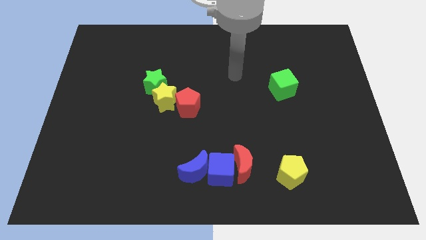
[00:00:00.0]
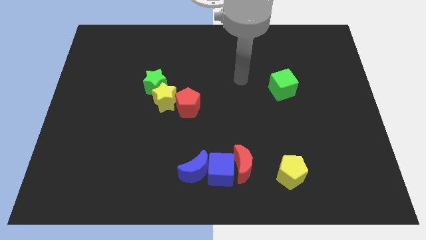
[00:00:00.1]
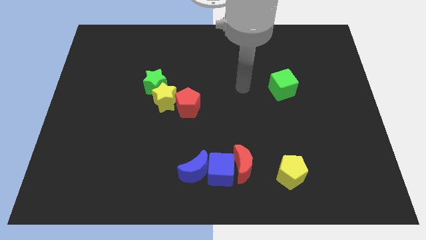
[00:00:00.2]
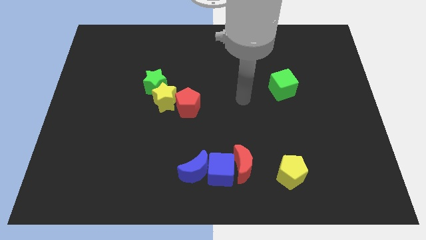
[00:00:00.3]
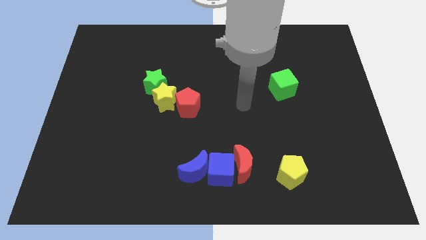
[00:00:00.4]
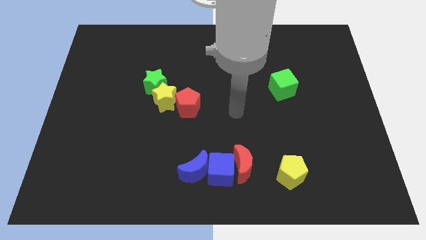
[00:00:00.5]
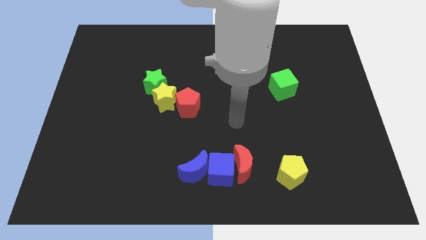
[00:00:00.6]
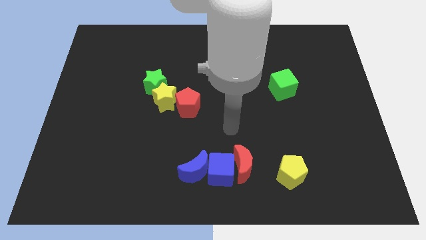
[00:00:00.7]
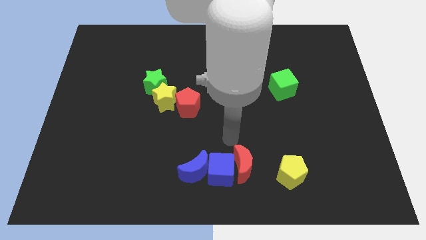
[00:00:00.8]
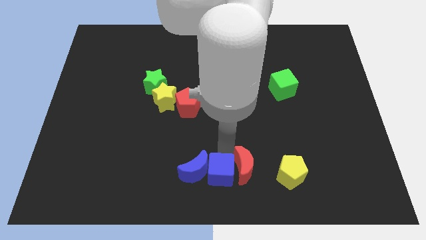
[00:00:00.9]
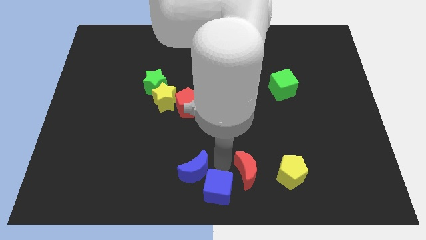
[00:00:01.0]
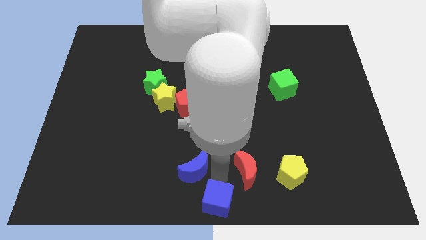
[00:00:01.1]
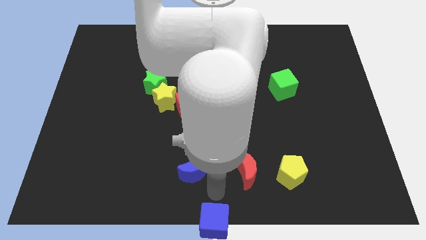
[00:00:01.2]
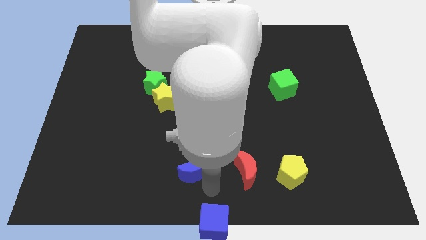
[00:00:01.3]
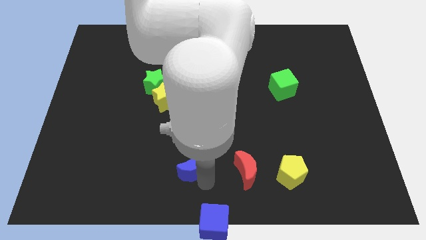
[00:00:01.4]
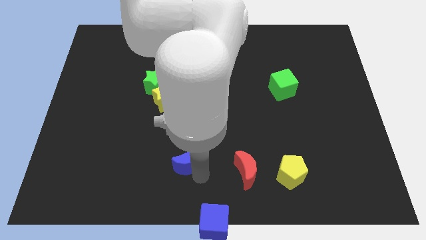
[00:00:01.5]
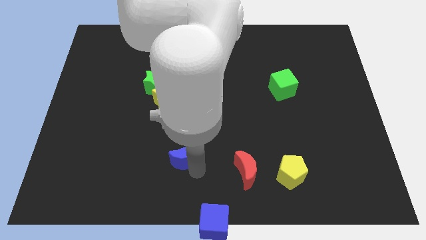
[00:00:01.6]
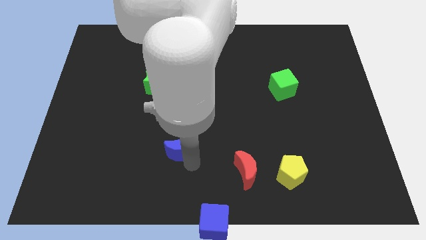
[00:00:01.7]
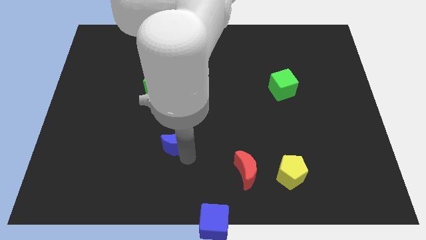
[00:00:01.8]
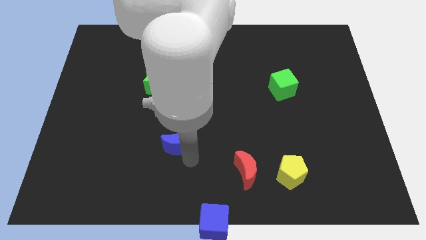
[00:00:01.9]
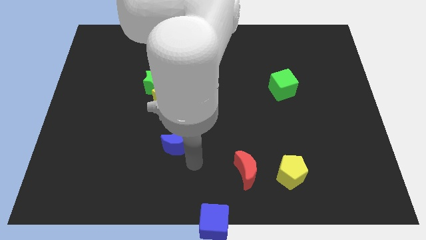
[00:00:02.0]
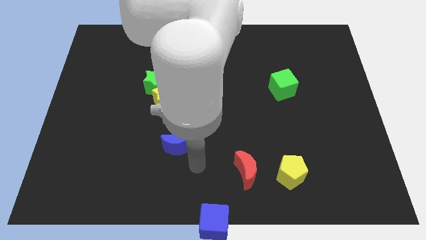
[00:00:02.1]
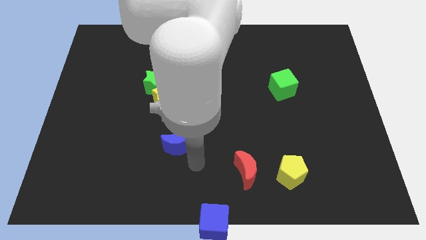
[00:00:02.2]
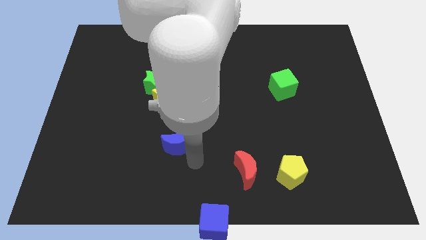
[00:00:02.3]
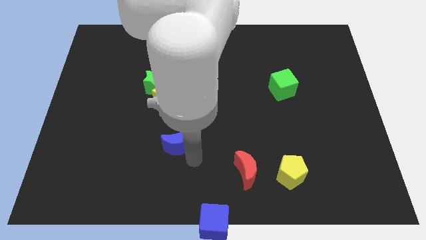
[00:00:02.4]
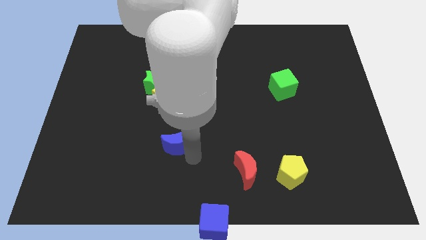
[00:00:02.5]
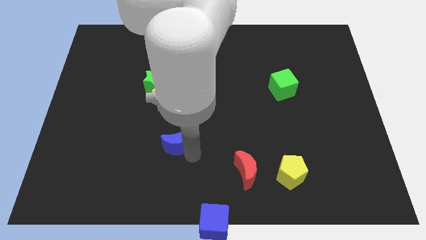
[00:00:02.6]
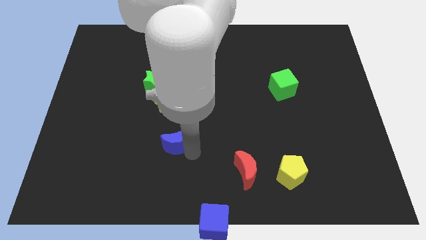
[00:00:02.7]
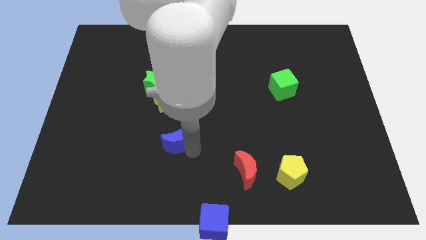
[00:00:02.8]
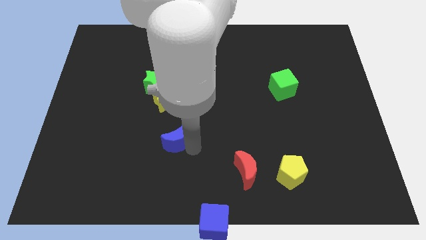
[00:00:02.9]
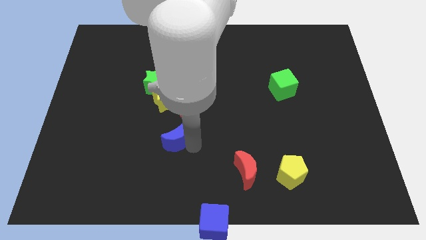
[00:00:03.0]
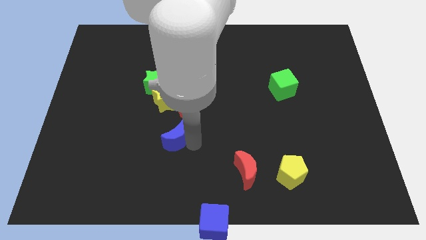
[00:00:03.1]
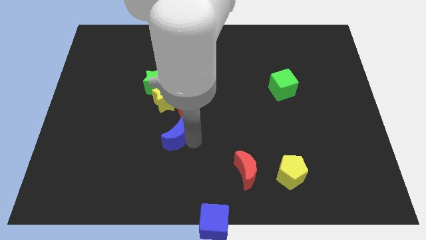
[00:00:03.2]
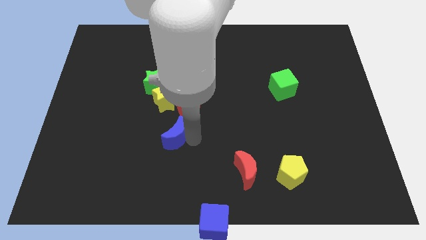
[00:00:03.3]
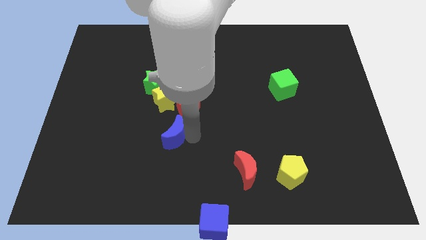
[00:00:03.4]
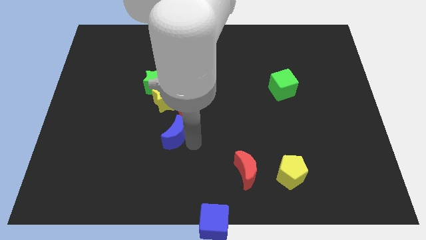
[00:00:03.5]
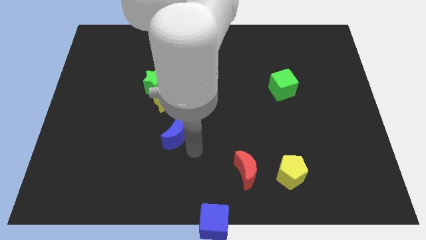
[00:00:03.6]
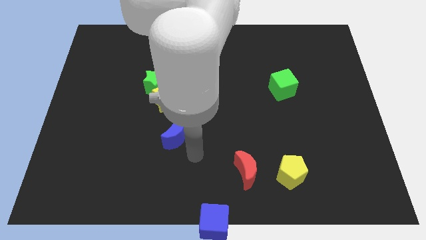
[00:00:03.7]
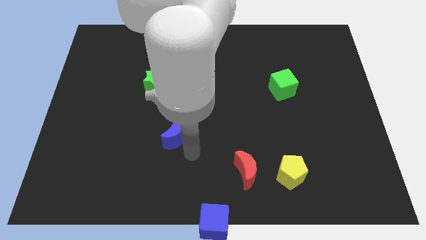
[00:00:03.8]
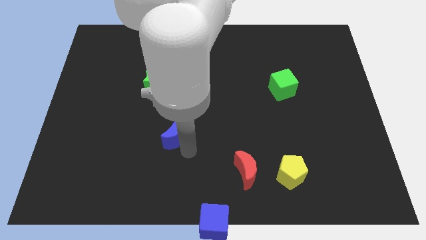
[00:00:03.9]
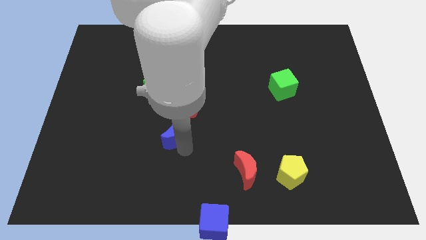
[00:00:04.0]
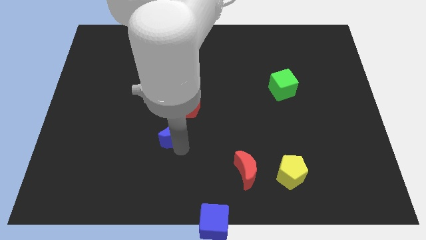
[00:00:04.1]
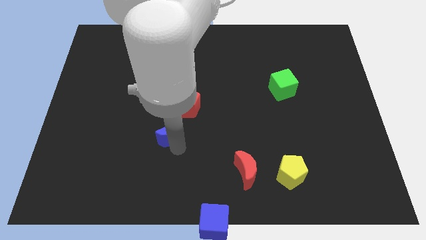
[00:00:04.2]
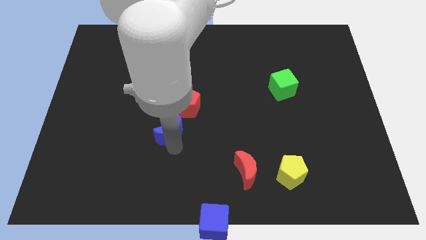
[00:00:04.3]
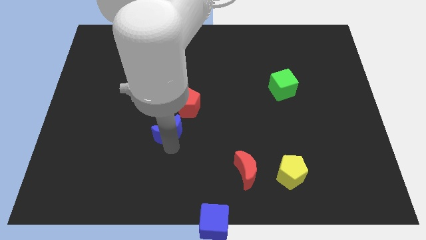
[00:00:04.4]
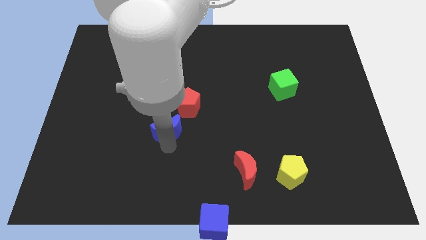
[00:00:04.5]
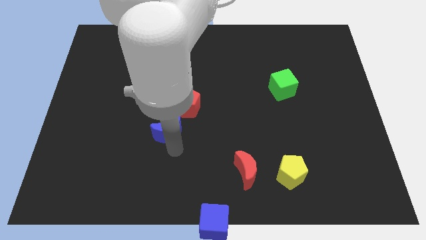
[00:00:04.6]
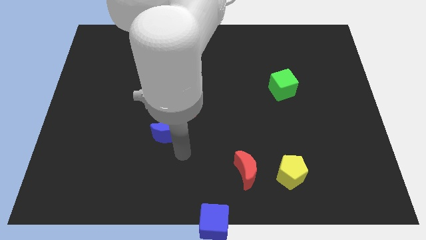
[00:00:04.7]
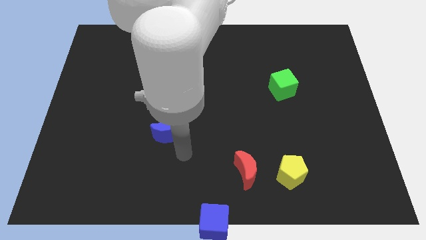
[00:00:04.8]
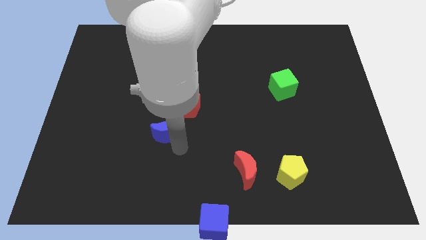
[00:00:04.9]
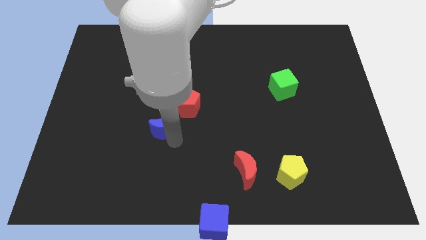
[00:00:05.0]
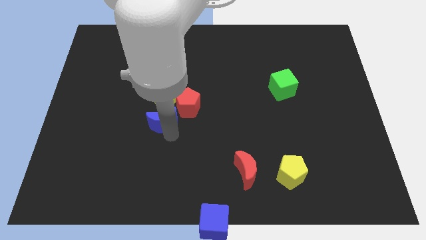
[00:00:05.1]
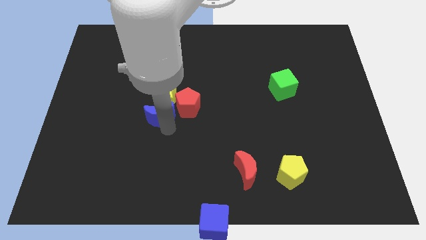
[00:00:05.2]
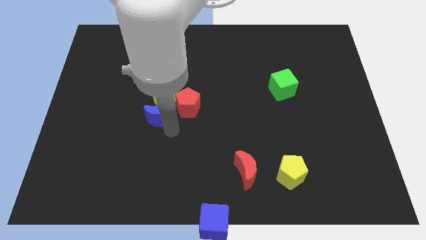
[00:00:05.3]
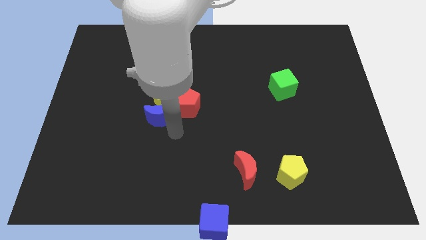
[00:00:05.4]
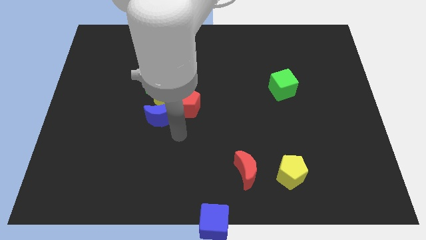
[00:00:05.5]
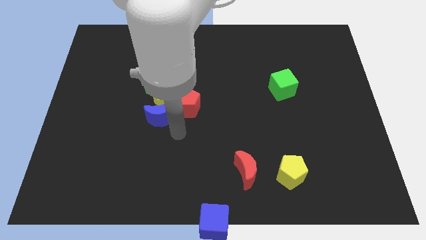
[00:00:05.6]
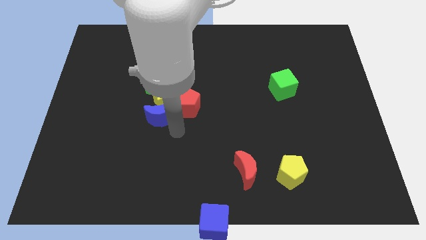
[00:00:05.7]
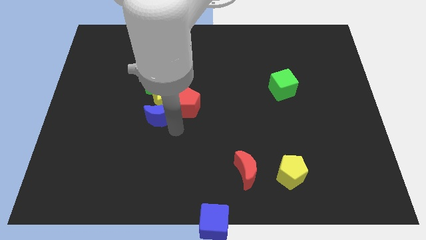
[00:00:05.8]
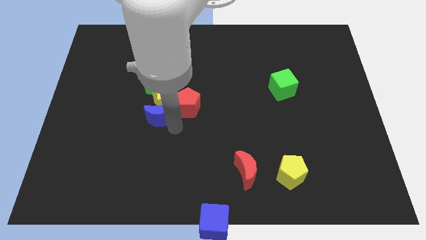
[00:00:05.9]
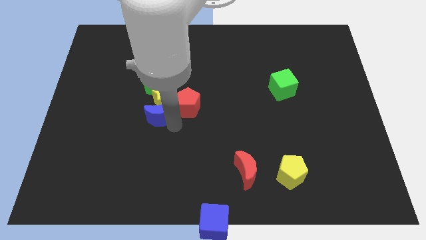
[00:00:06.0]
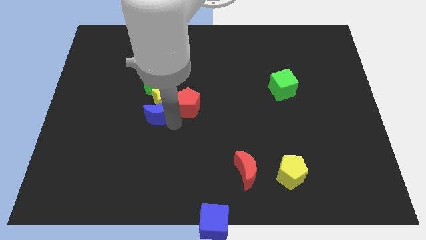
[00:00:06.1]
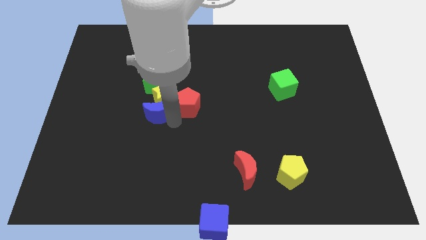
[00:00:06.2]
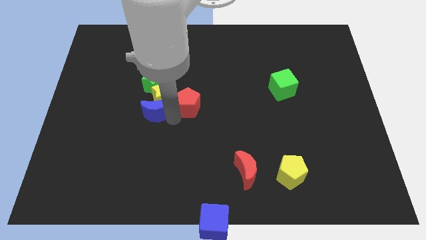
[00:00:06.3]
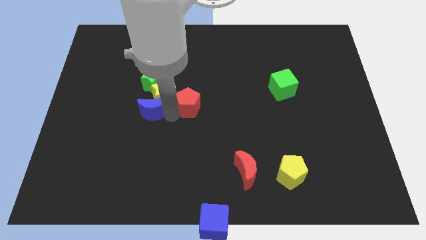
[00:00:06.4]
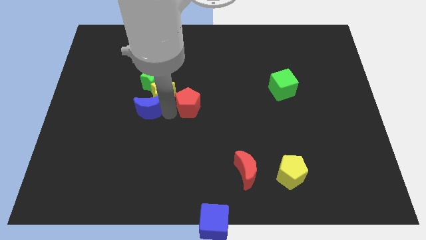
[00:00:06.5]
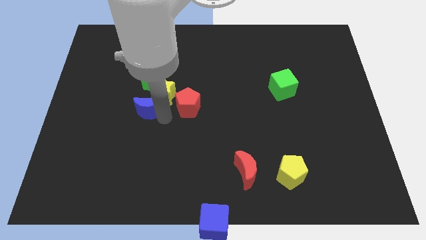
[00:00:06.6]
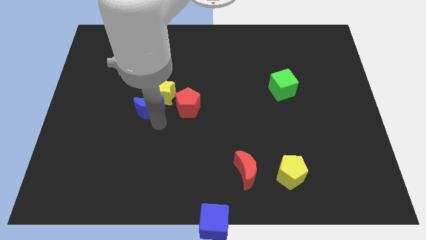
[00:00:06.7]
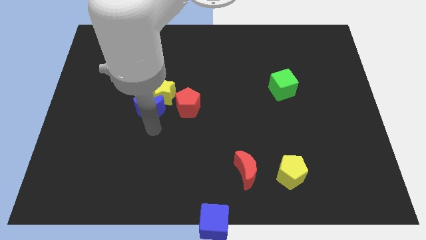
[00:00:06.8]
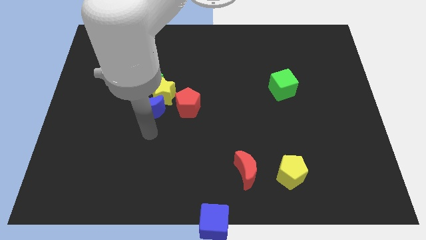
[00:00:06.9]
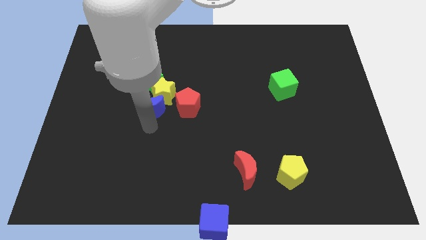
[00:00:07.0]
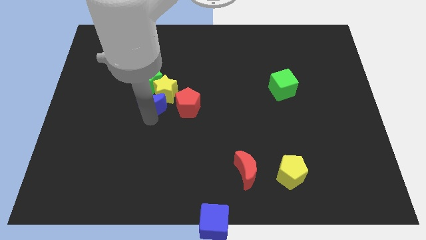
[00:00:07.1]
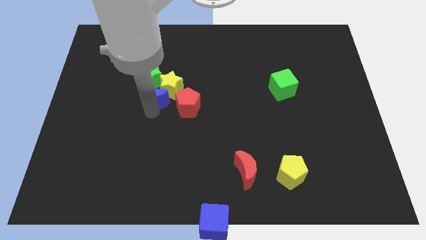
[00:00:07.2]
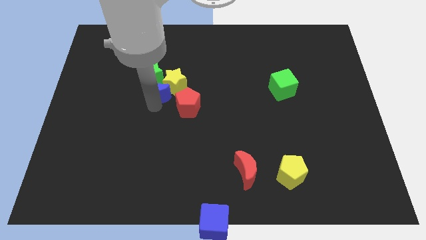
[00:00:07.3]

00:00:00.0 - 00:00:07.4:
push the blue moon next to the green star
